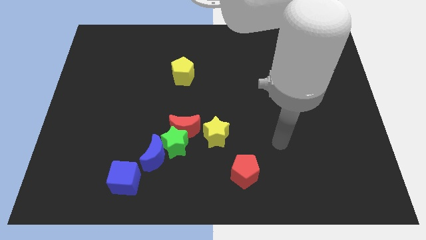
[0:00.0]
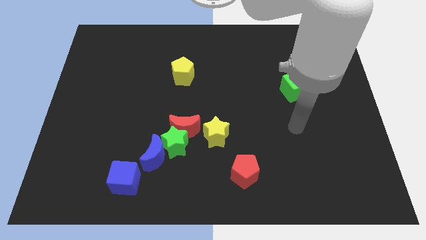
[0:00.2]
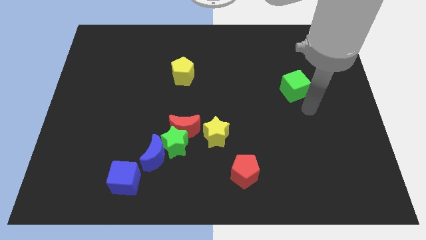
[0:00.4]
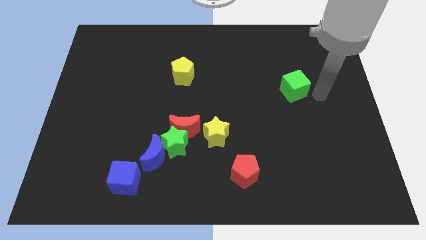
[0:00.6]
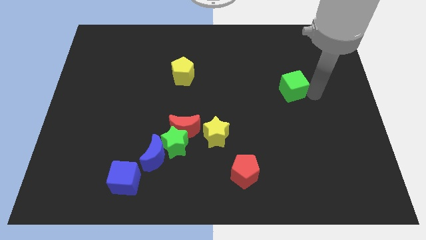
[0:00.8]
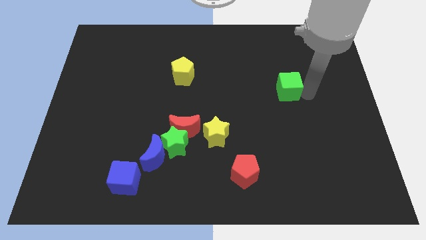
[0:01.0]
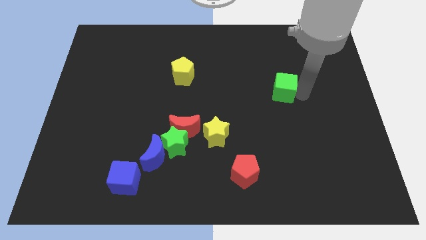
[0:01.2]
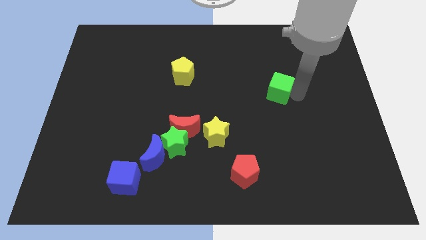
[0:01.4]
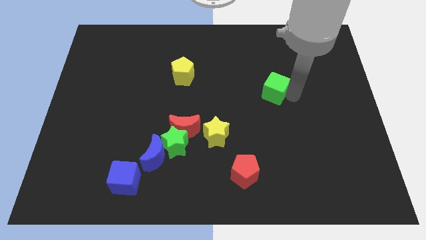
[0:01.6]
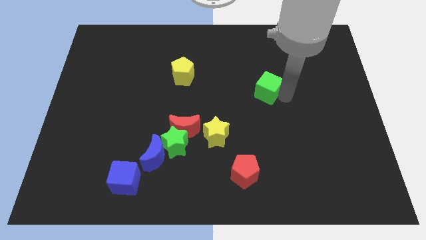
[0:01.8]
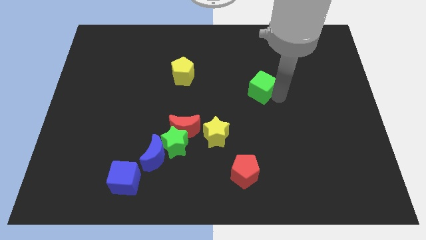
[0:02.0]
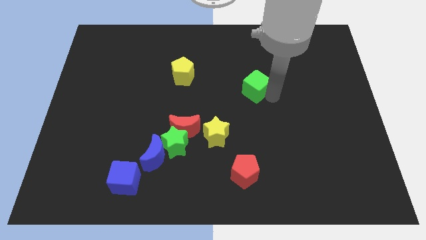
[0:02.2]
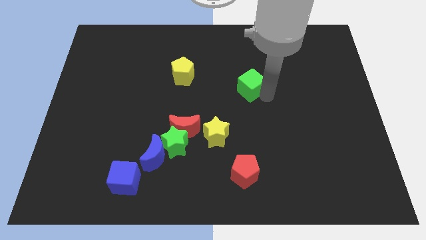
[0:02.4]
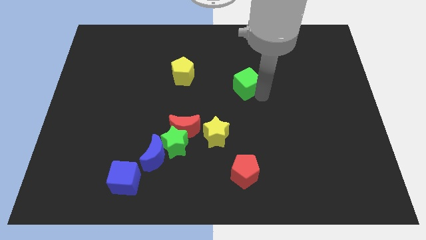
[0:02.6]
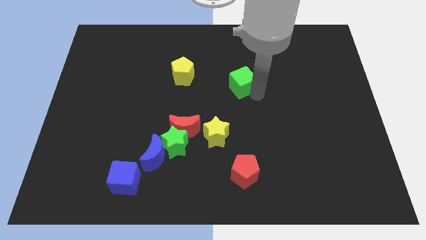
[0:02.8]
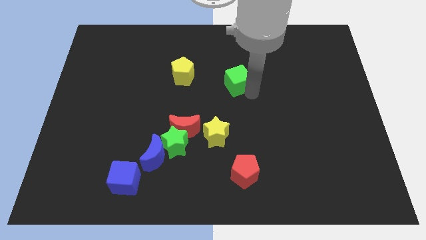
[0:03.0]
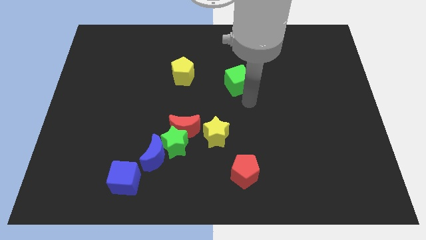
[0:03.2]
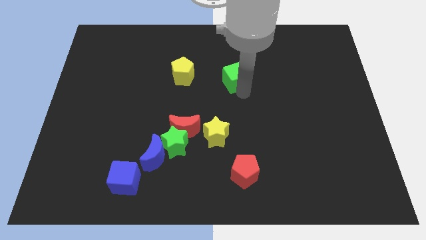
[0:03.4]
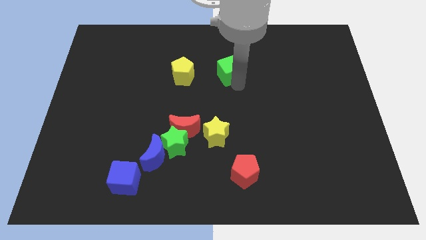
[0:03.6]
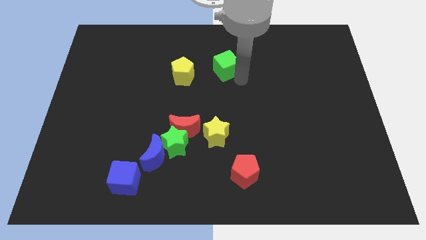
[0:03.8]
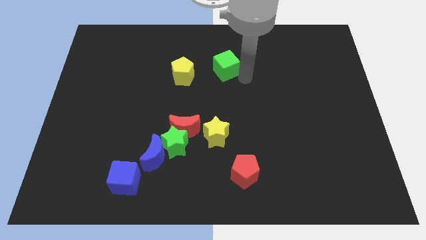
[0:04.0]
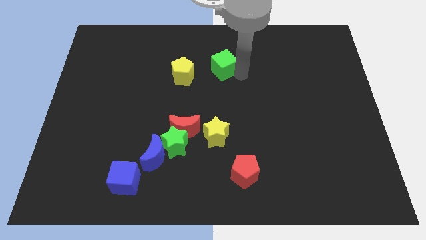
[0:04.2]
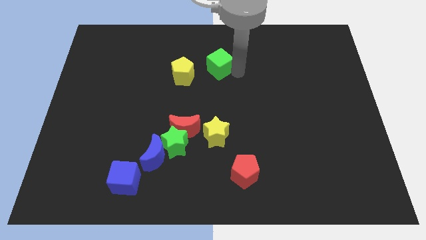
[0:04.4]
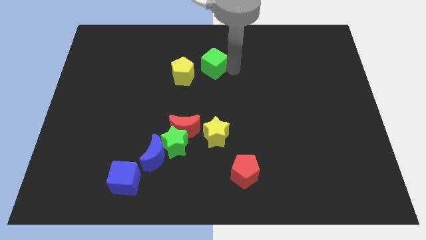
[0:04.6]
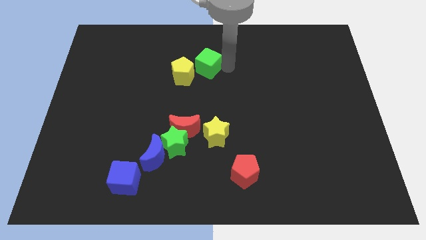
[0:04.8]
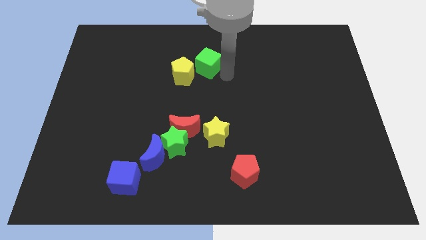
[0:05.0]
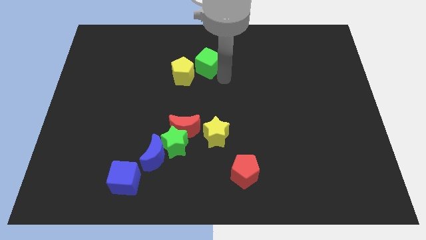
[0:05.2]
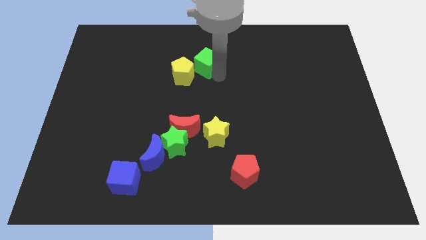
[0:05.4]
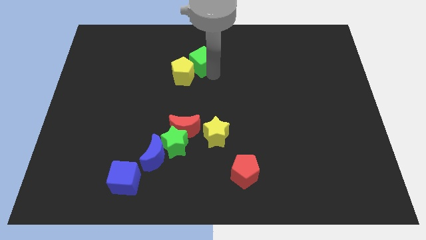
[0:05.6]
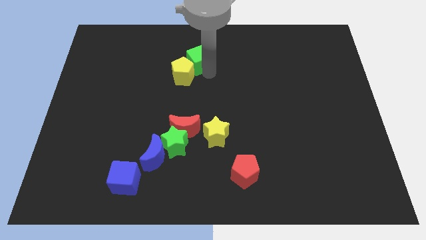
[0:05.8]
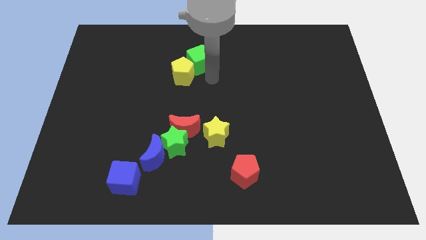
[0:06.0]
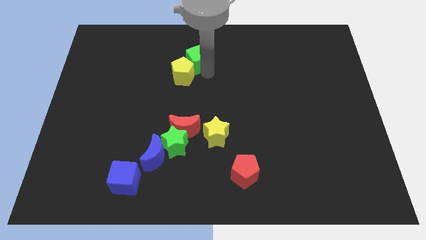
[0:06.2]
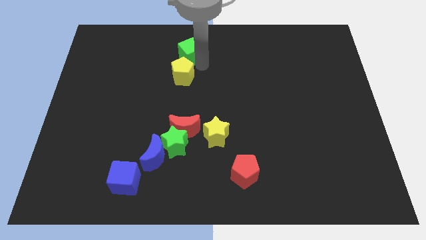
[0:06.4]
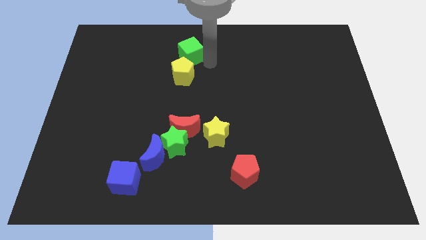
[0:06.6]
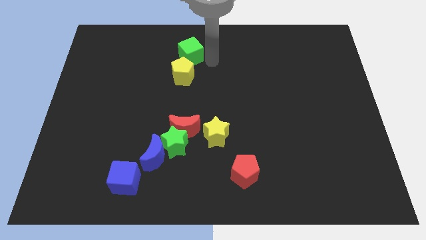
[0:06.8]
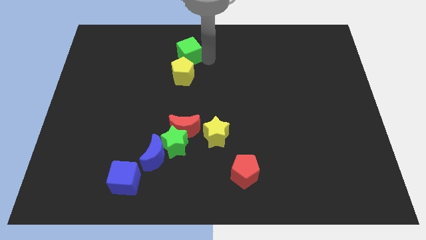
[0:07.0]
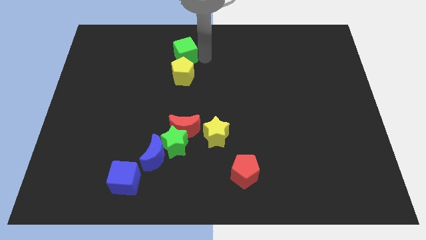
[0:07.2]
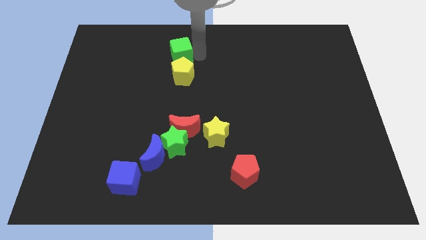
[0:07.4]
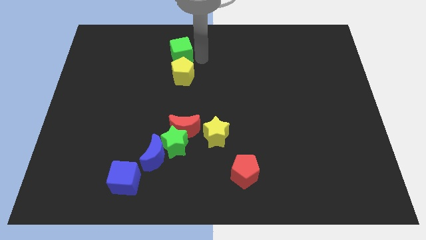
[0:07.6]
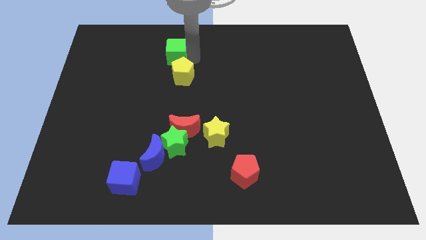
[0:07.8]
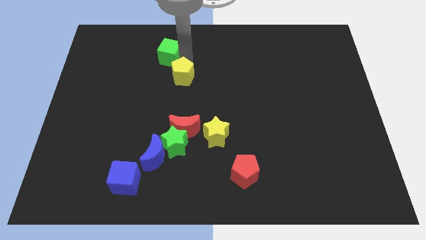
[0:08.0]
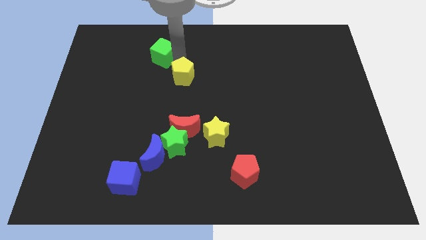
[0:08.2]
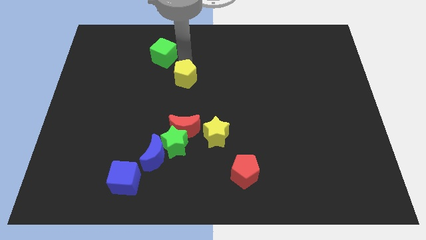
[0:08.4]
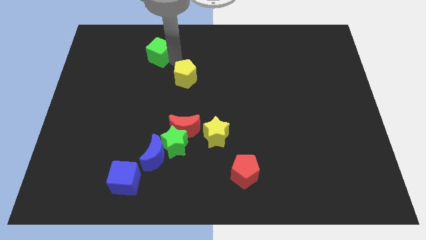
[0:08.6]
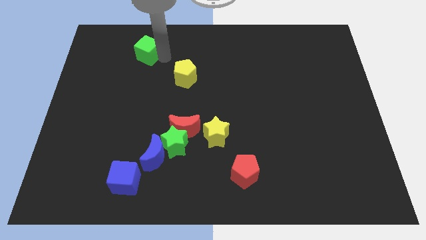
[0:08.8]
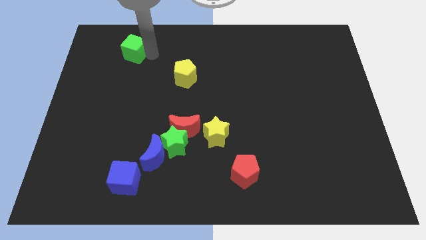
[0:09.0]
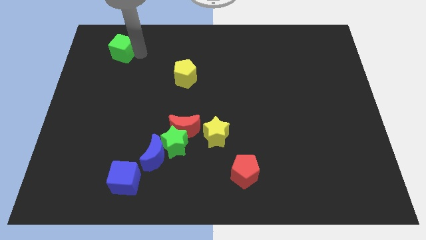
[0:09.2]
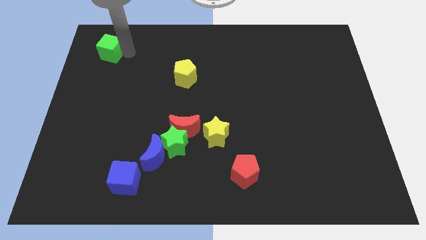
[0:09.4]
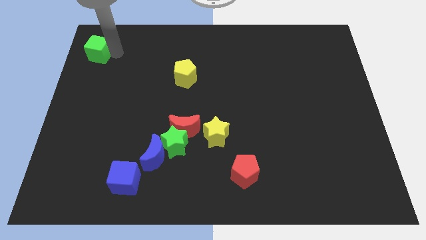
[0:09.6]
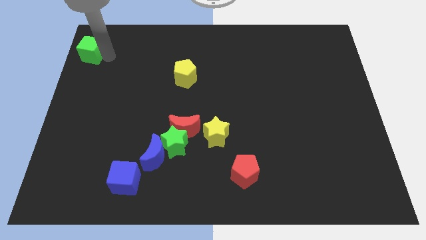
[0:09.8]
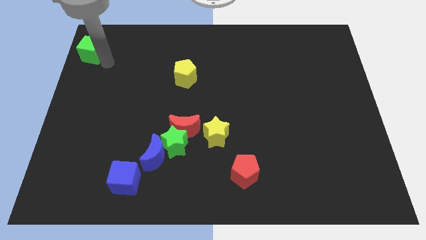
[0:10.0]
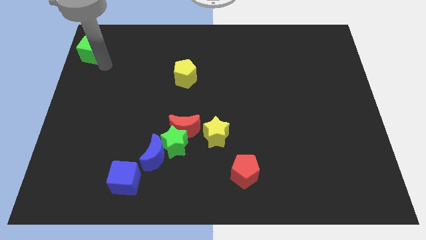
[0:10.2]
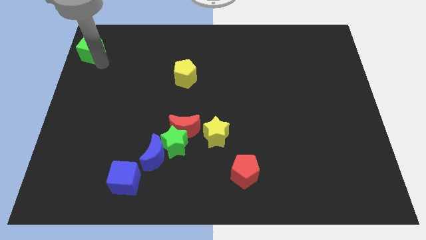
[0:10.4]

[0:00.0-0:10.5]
put the green cube to the top left

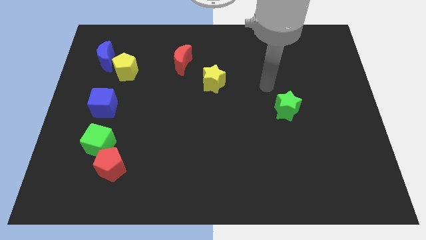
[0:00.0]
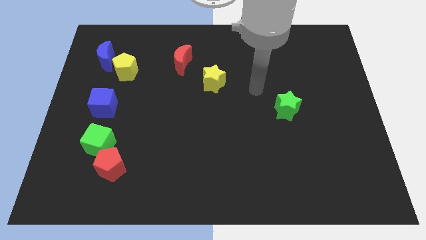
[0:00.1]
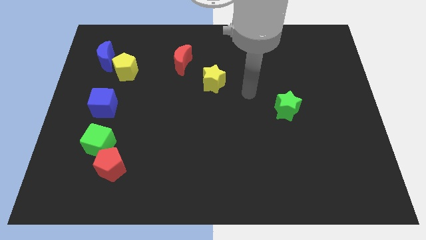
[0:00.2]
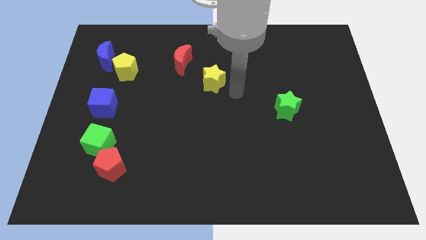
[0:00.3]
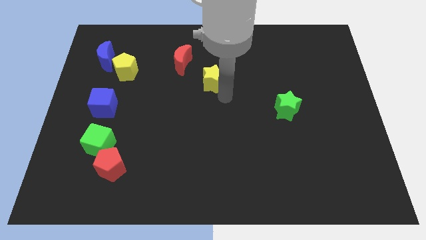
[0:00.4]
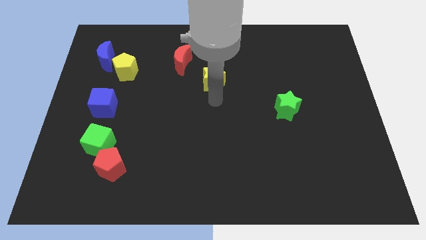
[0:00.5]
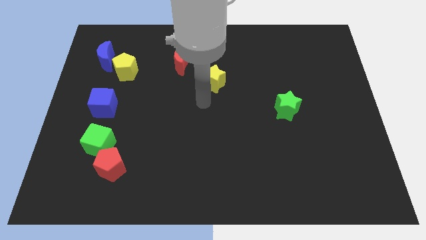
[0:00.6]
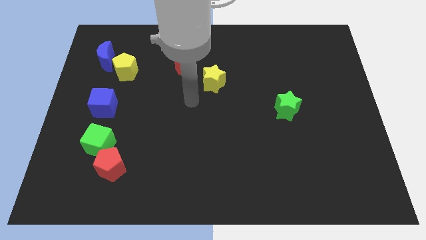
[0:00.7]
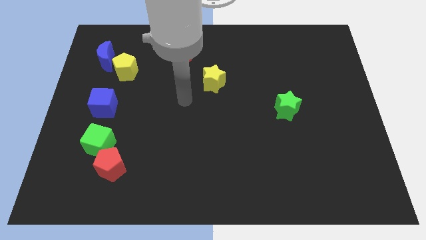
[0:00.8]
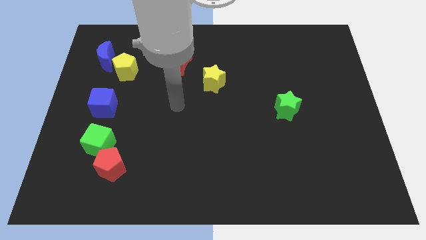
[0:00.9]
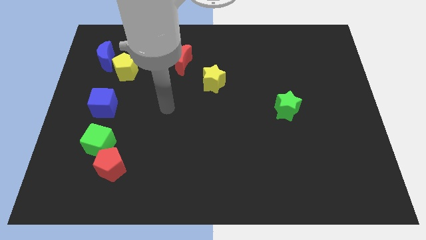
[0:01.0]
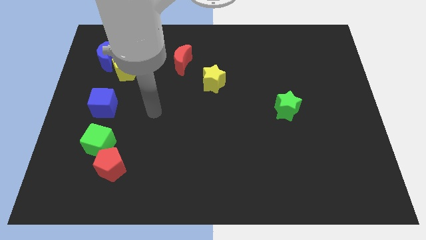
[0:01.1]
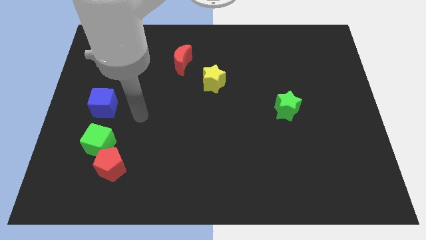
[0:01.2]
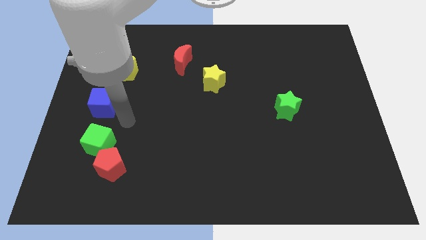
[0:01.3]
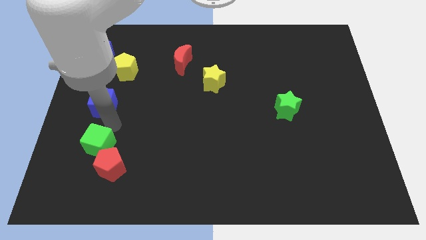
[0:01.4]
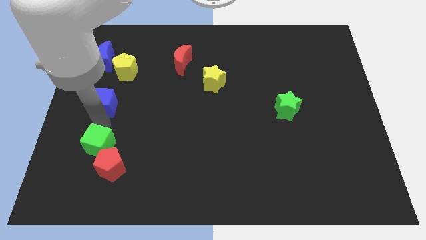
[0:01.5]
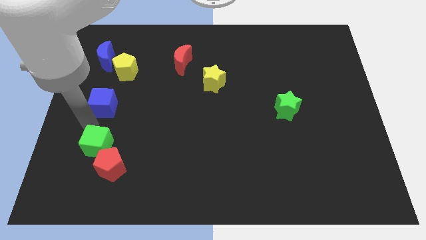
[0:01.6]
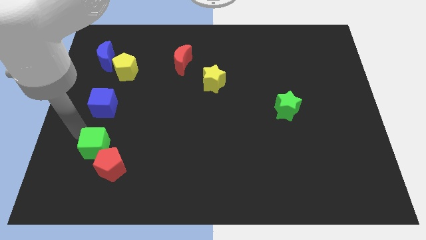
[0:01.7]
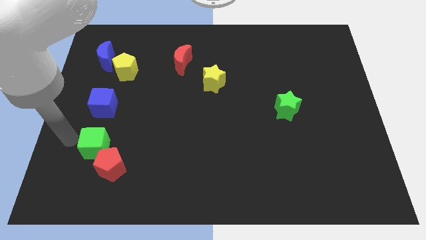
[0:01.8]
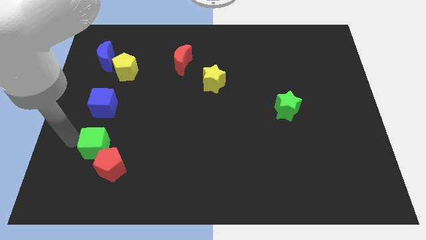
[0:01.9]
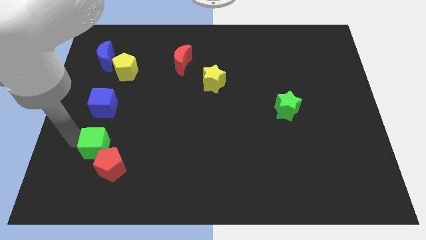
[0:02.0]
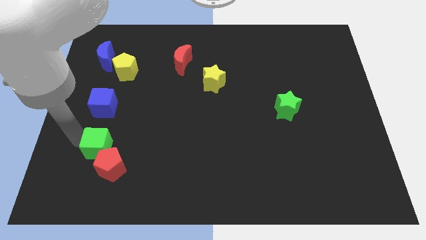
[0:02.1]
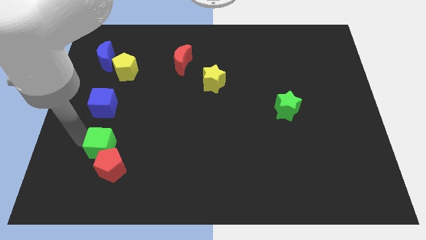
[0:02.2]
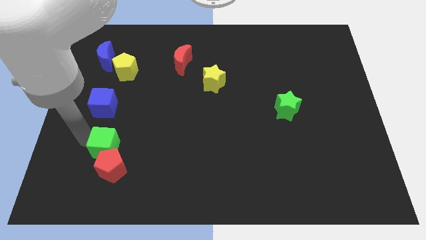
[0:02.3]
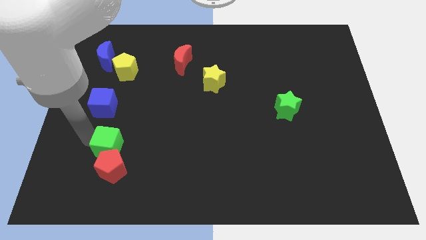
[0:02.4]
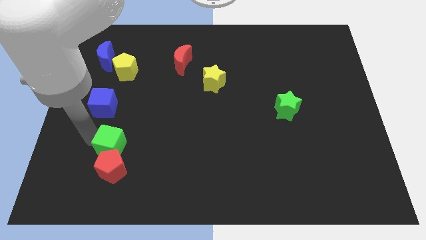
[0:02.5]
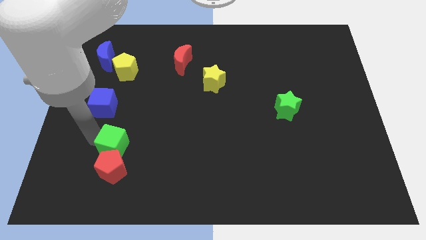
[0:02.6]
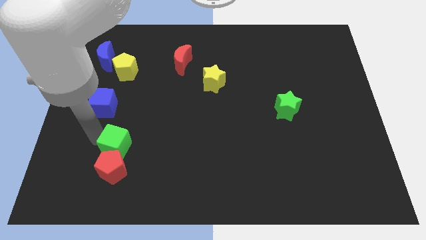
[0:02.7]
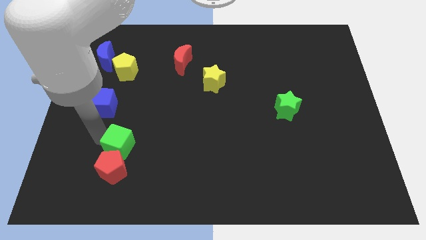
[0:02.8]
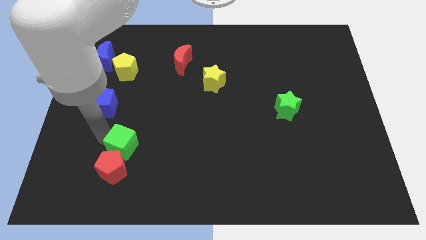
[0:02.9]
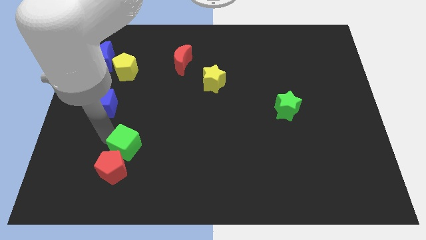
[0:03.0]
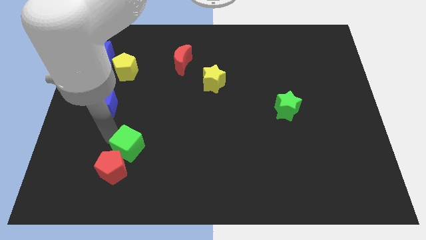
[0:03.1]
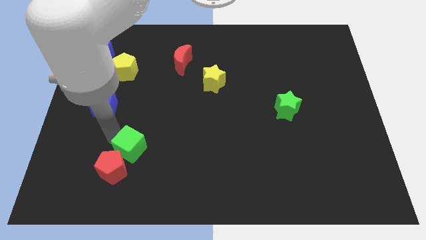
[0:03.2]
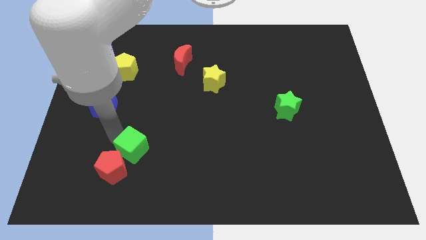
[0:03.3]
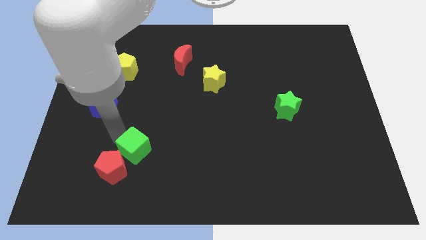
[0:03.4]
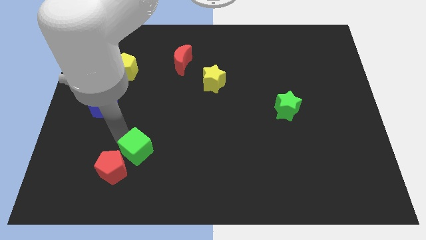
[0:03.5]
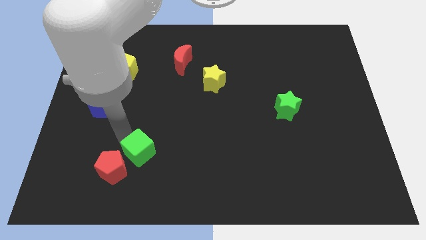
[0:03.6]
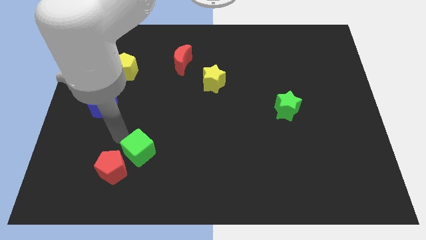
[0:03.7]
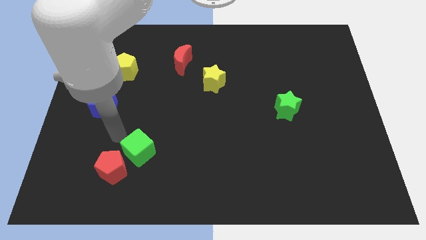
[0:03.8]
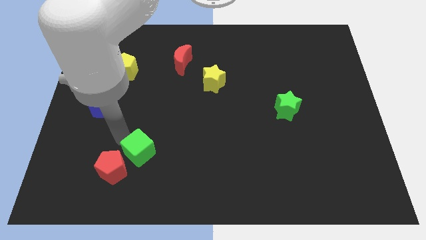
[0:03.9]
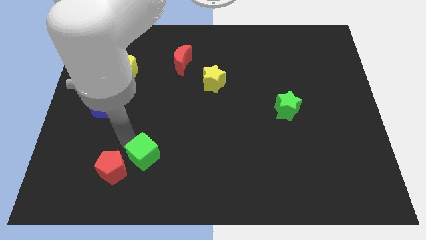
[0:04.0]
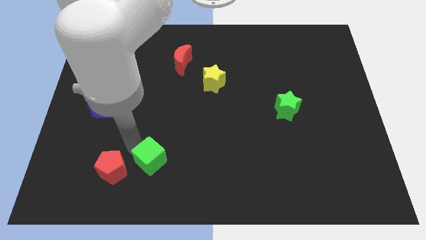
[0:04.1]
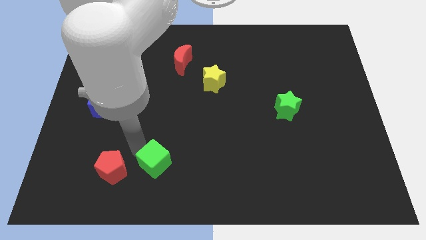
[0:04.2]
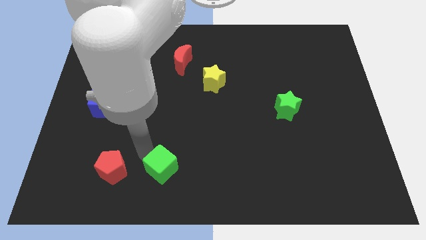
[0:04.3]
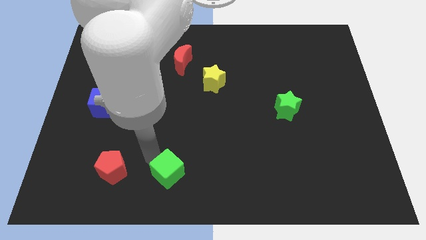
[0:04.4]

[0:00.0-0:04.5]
push the green cube to the bottom
